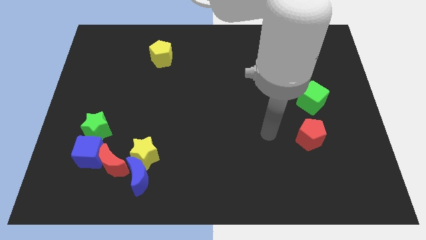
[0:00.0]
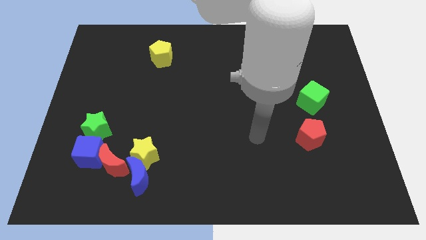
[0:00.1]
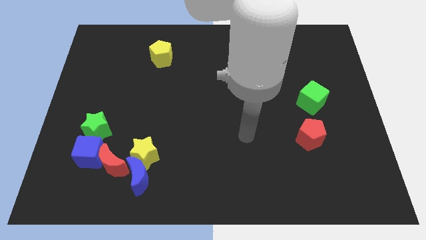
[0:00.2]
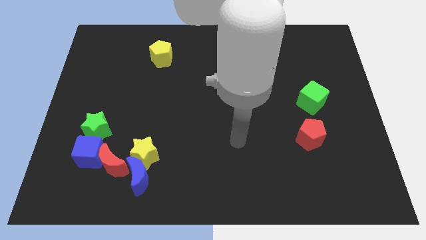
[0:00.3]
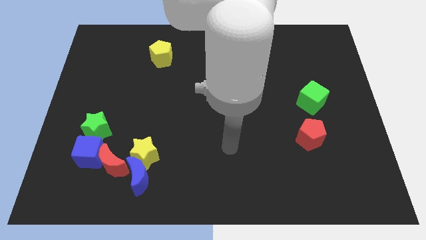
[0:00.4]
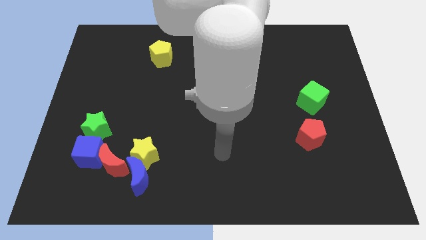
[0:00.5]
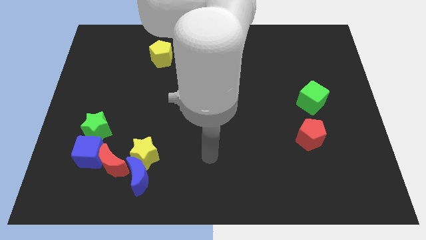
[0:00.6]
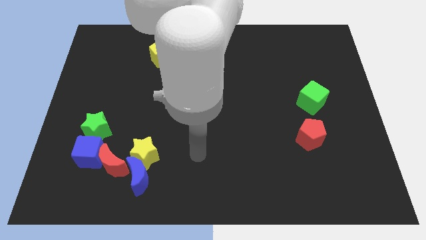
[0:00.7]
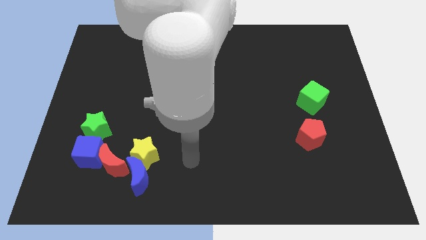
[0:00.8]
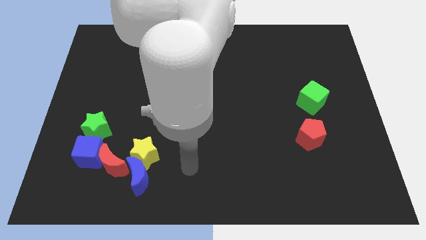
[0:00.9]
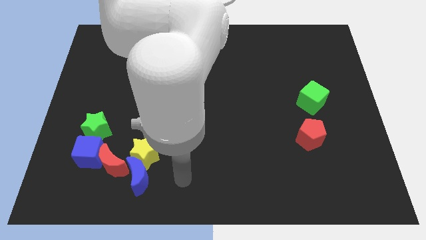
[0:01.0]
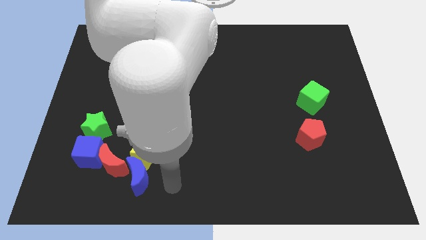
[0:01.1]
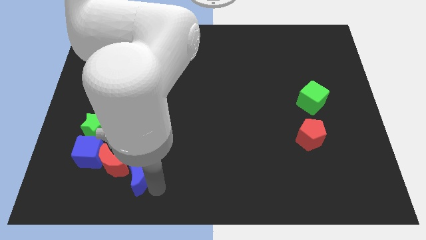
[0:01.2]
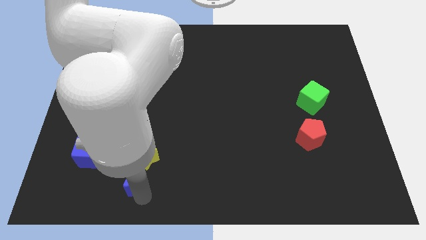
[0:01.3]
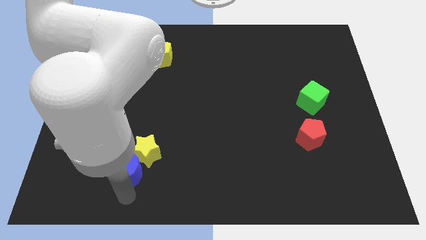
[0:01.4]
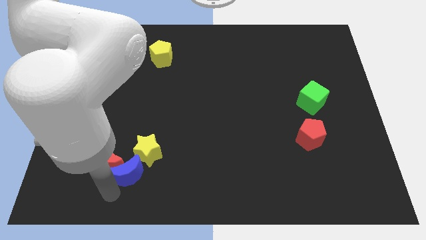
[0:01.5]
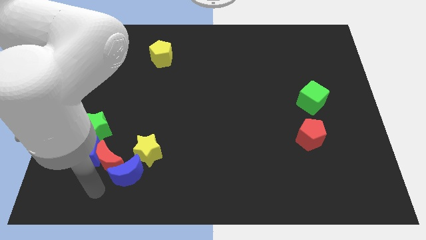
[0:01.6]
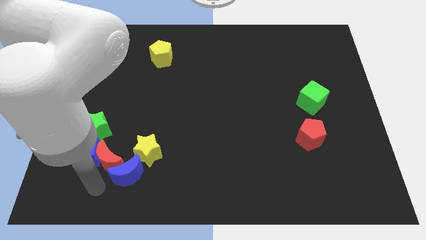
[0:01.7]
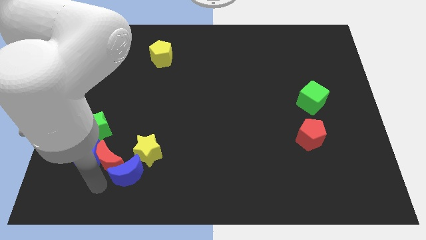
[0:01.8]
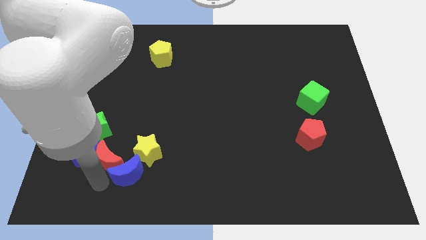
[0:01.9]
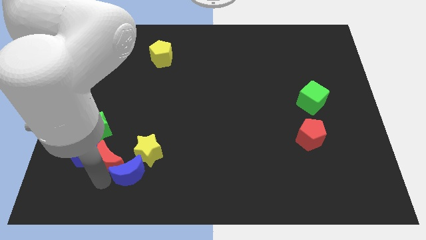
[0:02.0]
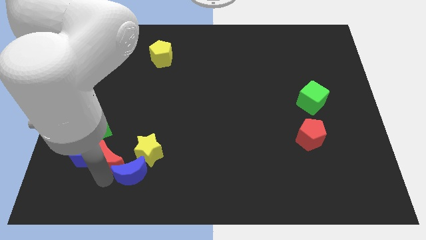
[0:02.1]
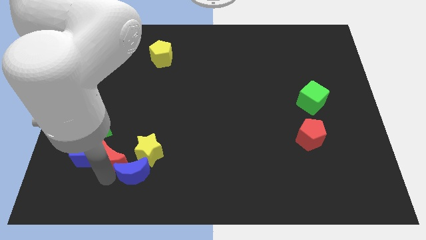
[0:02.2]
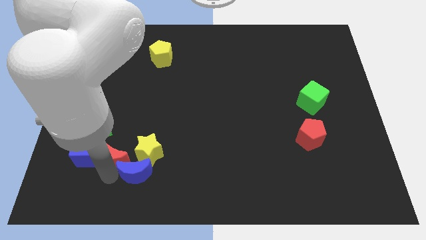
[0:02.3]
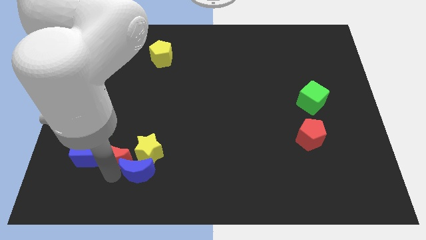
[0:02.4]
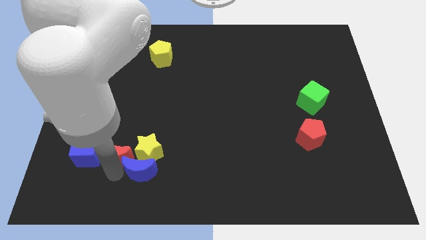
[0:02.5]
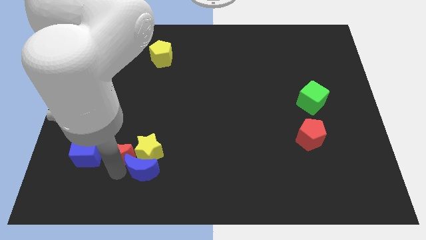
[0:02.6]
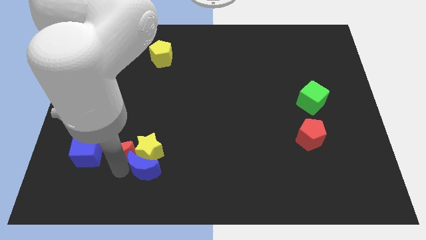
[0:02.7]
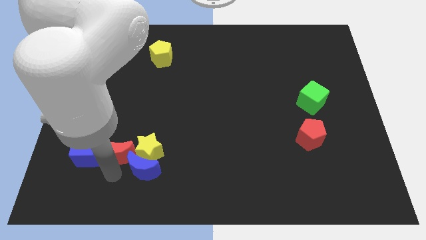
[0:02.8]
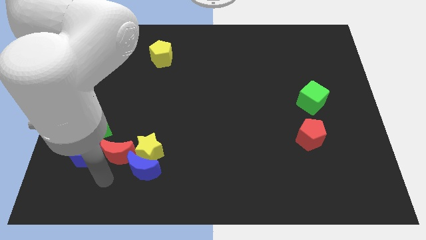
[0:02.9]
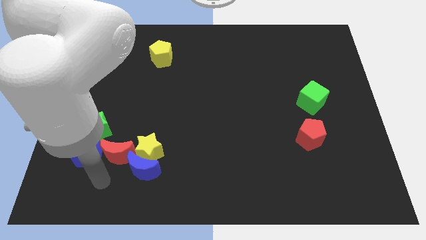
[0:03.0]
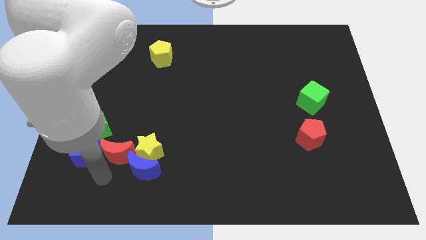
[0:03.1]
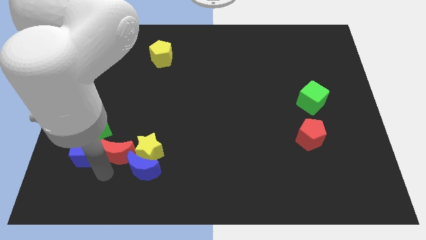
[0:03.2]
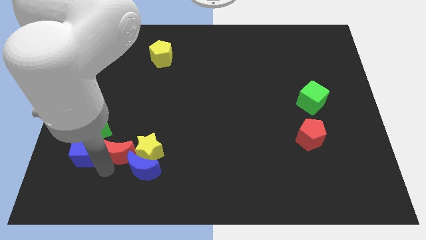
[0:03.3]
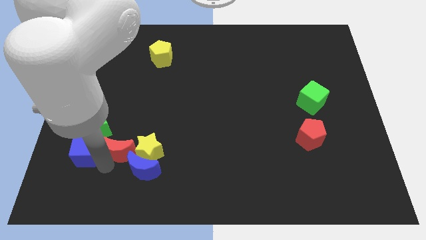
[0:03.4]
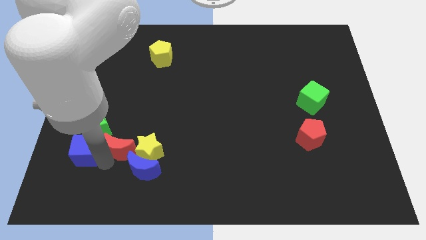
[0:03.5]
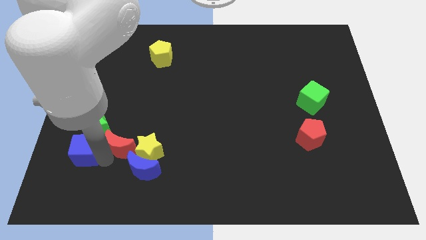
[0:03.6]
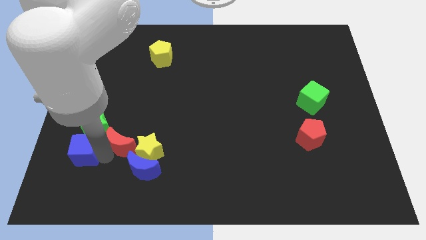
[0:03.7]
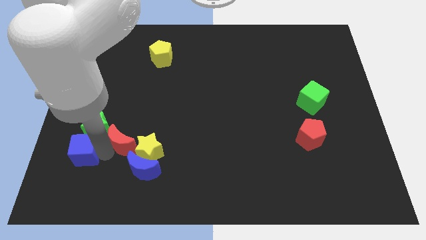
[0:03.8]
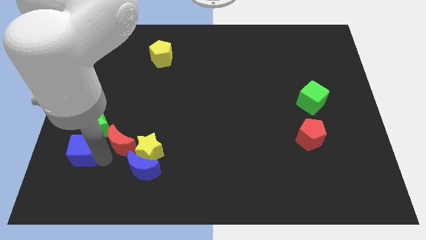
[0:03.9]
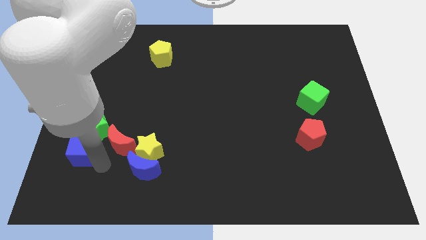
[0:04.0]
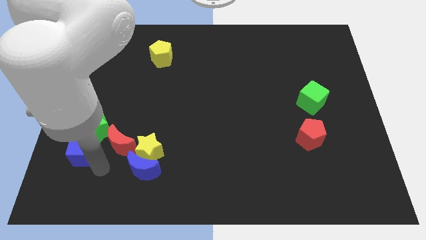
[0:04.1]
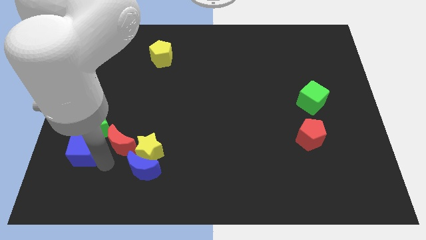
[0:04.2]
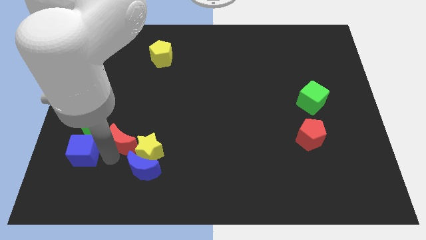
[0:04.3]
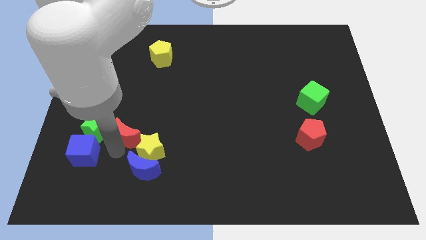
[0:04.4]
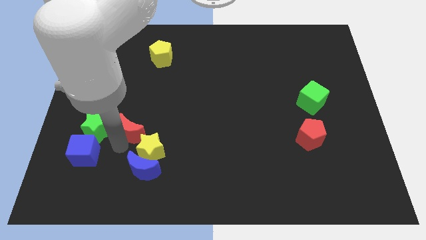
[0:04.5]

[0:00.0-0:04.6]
move the red moon a little bit up and to the right

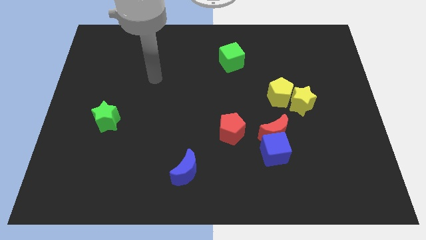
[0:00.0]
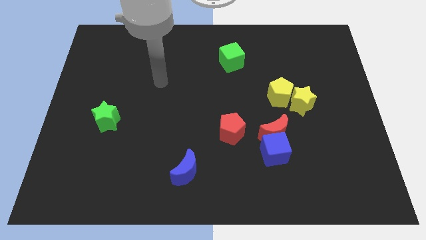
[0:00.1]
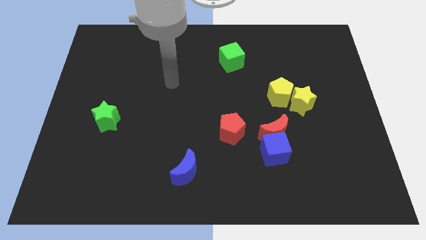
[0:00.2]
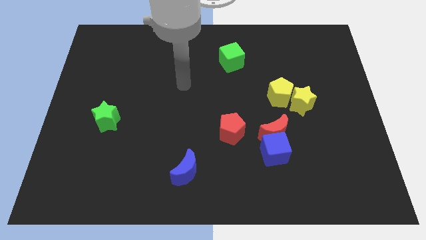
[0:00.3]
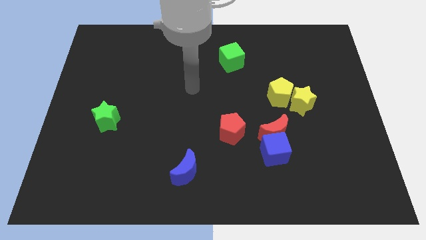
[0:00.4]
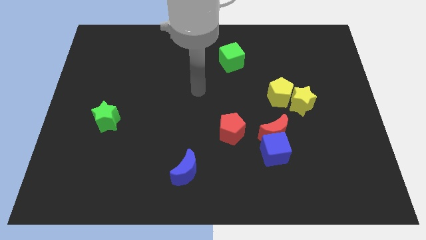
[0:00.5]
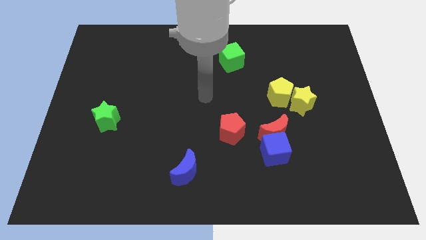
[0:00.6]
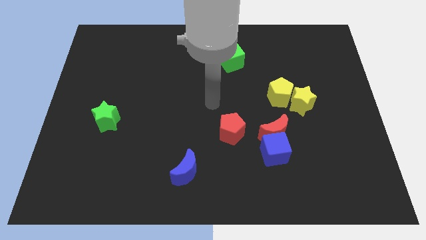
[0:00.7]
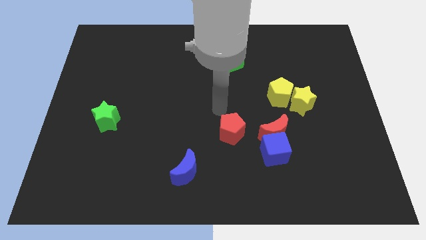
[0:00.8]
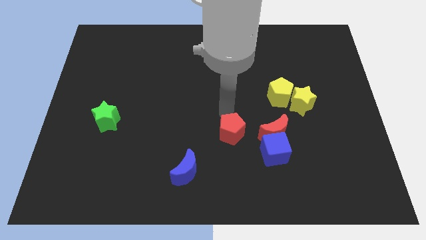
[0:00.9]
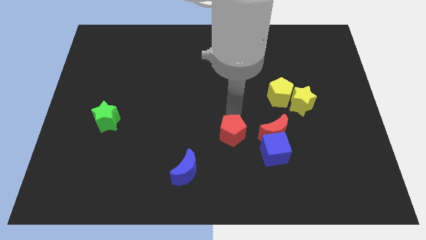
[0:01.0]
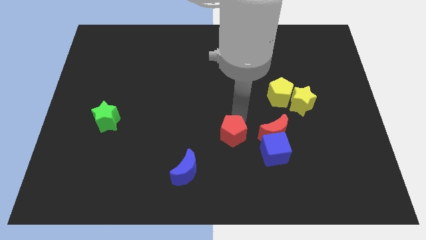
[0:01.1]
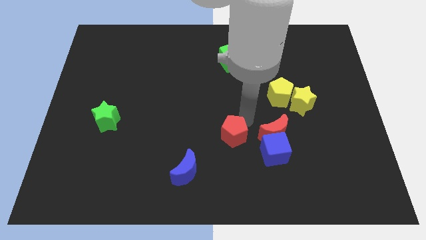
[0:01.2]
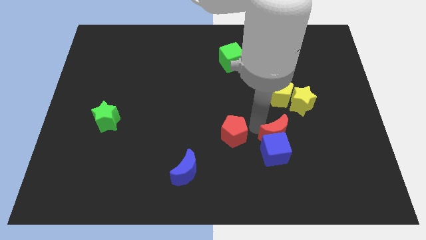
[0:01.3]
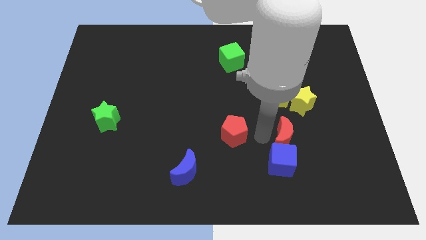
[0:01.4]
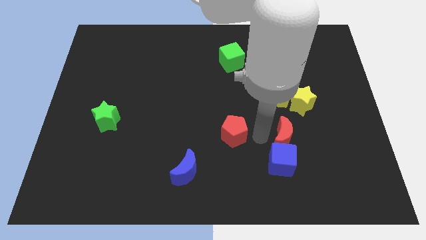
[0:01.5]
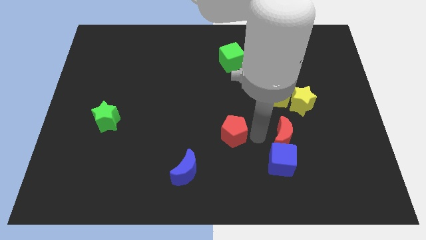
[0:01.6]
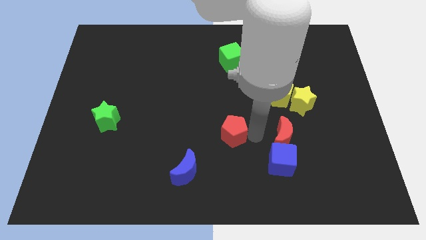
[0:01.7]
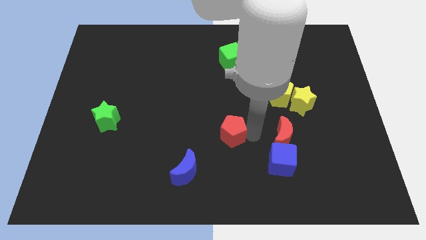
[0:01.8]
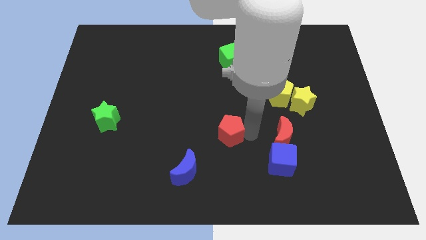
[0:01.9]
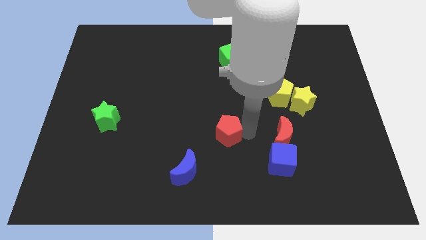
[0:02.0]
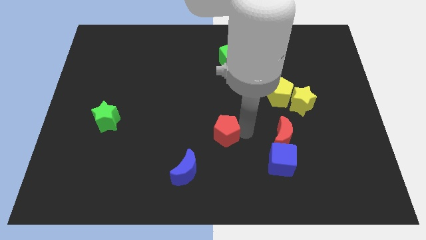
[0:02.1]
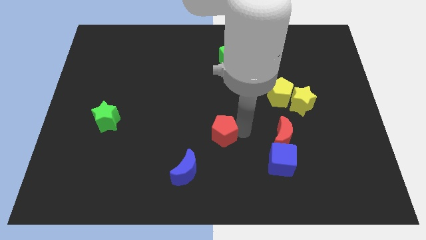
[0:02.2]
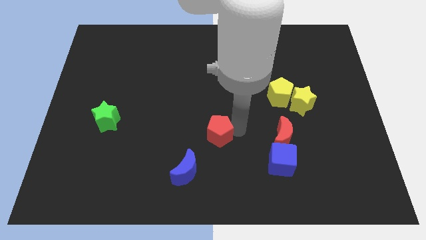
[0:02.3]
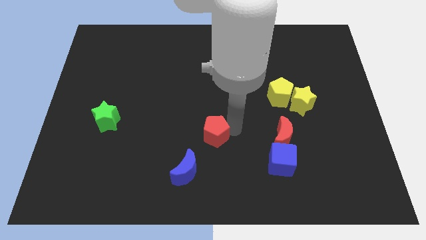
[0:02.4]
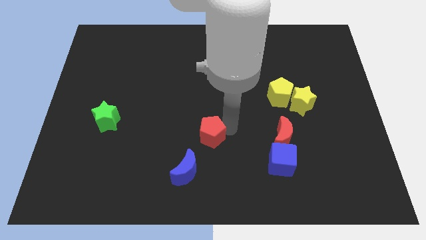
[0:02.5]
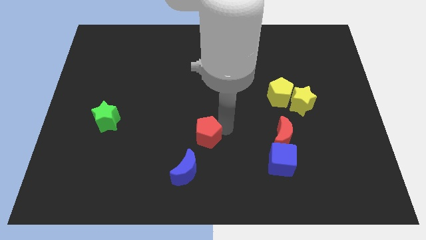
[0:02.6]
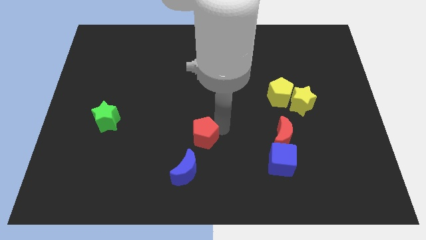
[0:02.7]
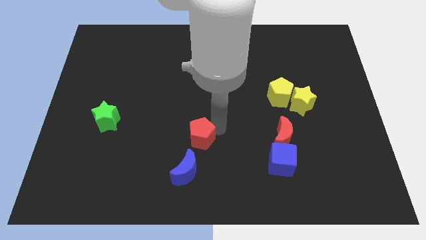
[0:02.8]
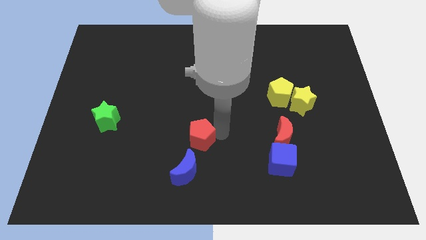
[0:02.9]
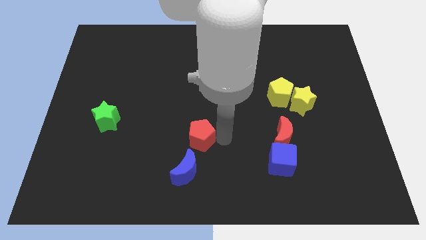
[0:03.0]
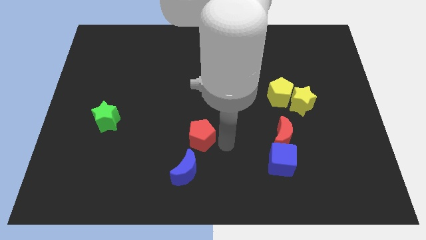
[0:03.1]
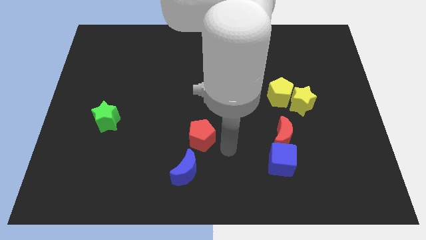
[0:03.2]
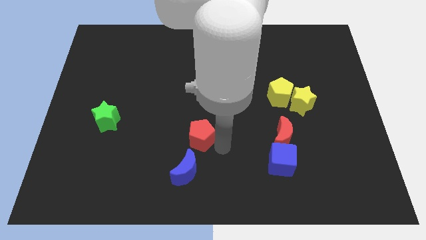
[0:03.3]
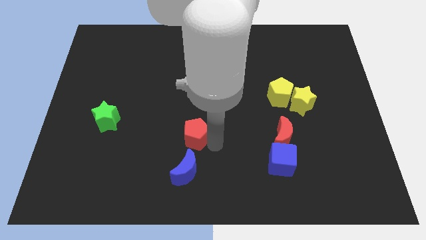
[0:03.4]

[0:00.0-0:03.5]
move the red pentagon to the left slightly
